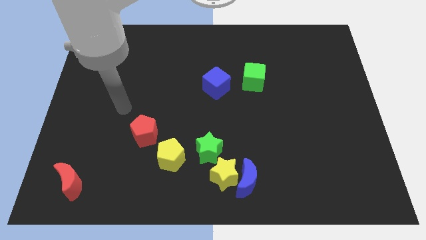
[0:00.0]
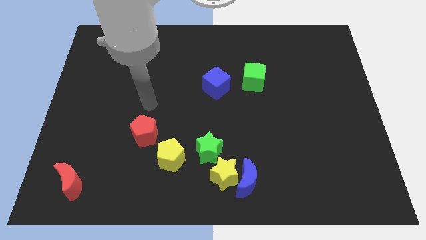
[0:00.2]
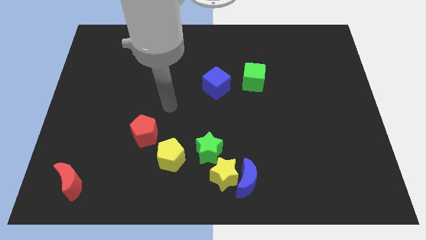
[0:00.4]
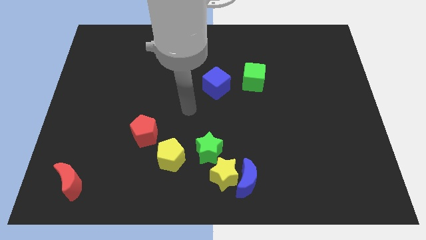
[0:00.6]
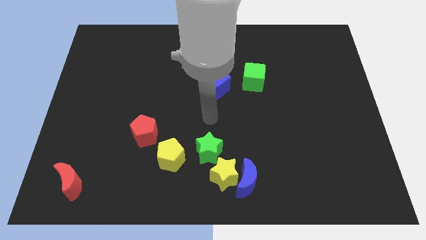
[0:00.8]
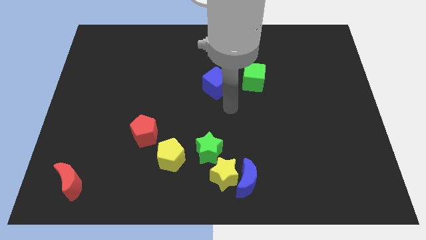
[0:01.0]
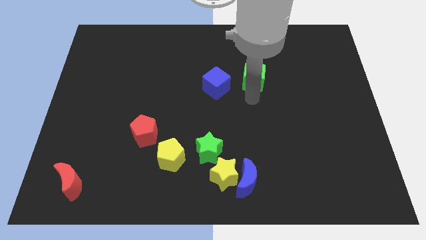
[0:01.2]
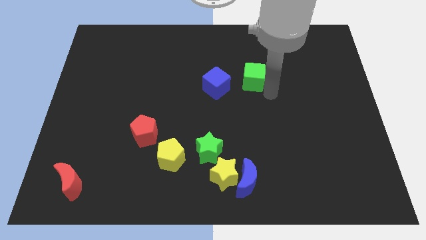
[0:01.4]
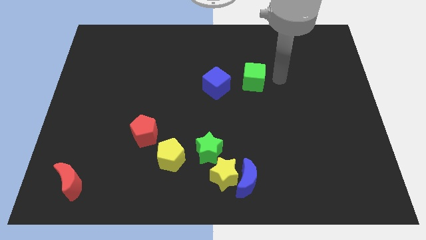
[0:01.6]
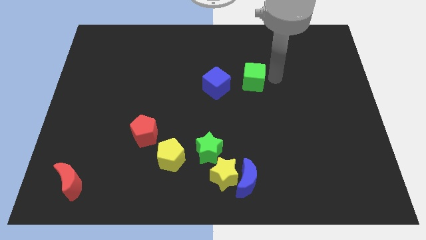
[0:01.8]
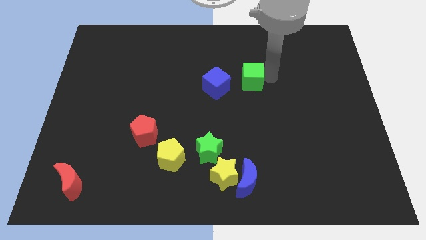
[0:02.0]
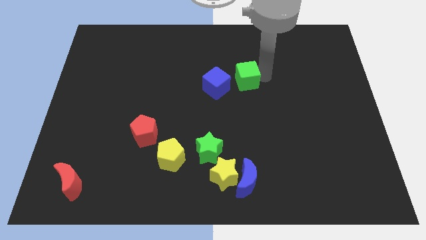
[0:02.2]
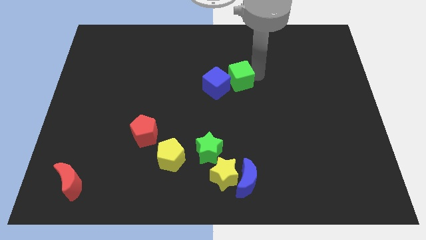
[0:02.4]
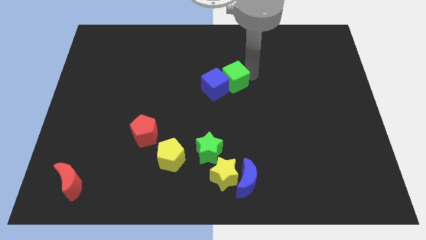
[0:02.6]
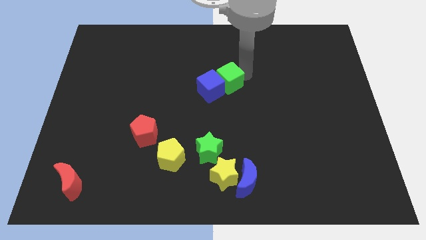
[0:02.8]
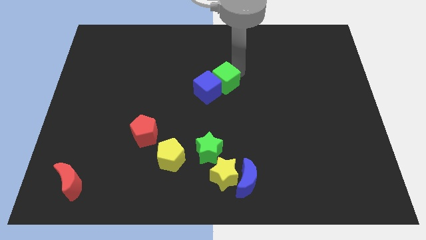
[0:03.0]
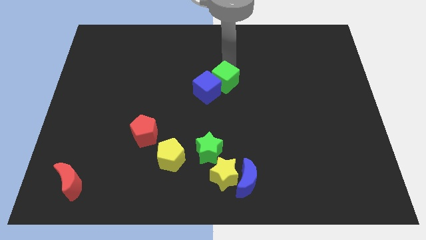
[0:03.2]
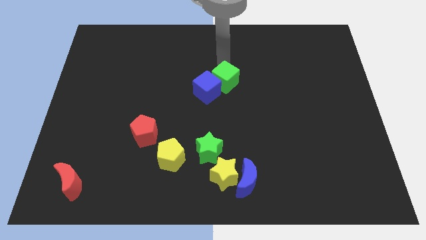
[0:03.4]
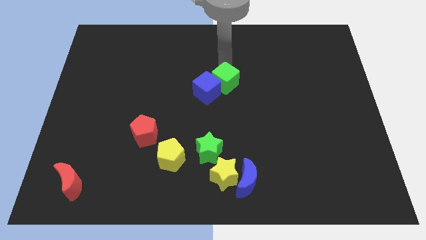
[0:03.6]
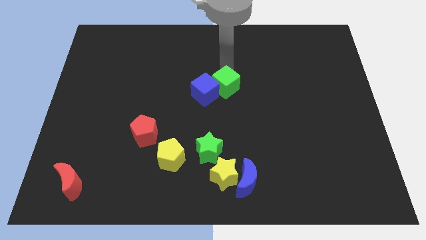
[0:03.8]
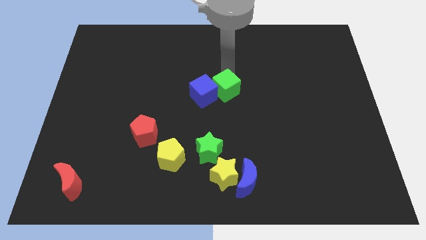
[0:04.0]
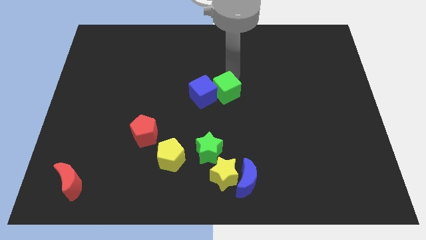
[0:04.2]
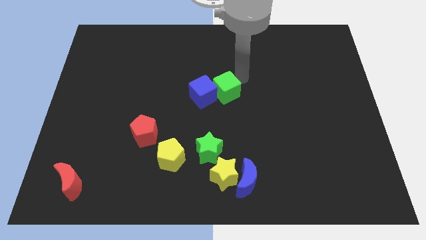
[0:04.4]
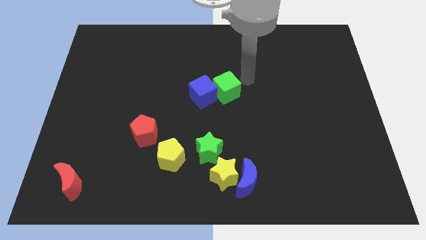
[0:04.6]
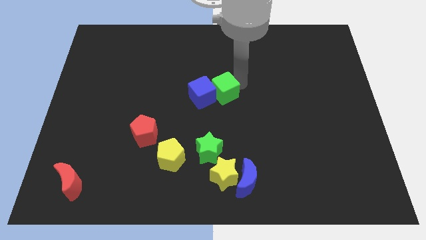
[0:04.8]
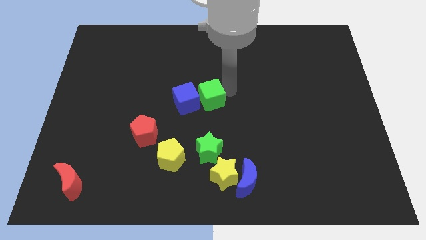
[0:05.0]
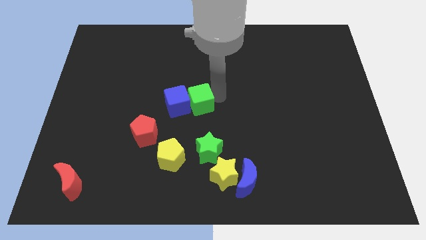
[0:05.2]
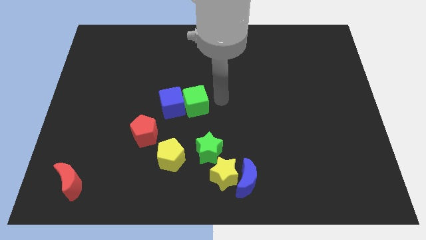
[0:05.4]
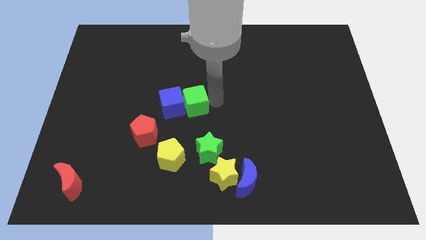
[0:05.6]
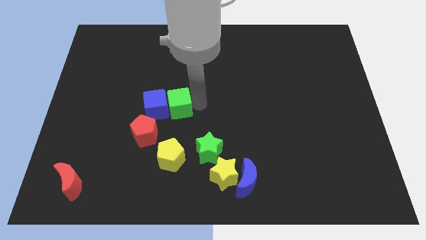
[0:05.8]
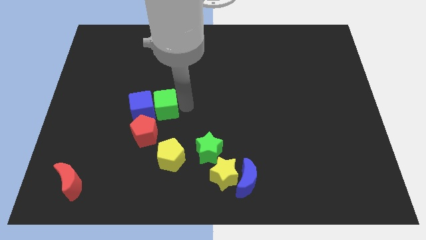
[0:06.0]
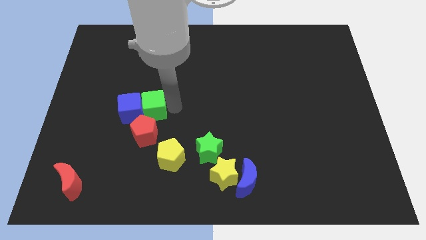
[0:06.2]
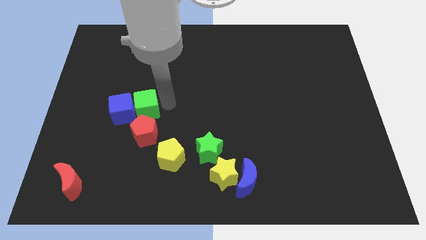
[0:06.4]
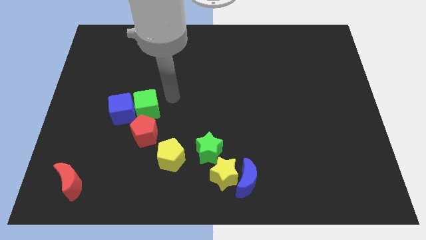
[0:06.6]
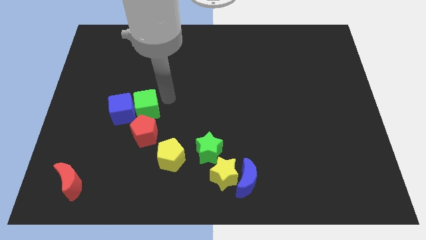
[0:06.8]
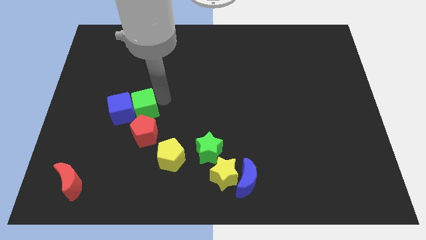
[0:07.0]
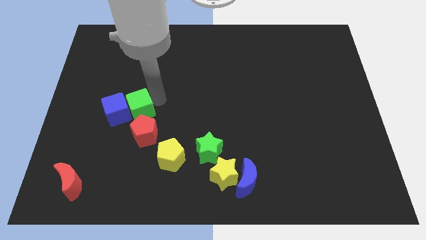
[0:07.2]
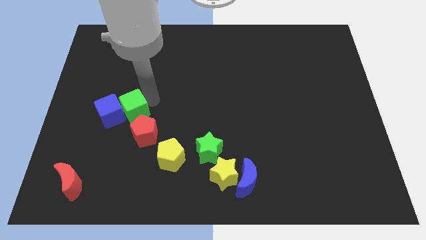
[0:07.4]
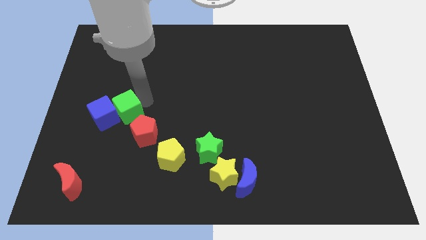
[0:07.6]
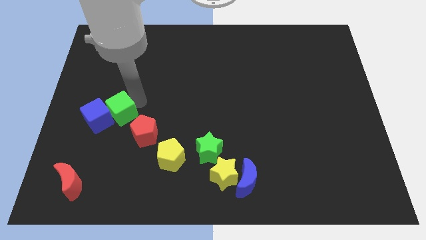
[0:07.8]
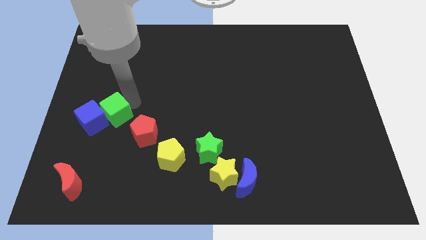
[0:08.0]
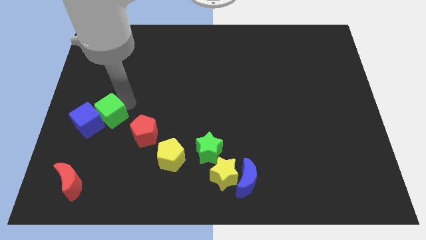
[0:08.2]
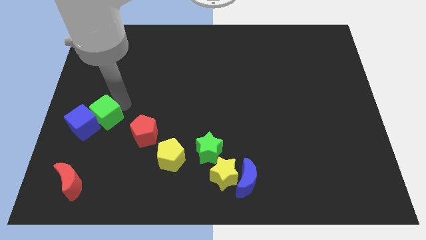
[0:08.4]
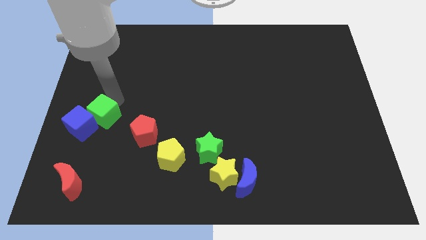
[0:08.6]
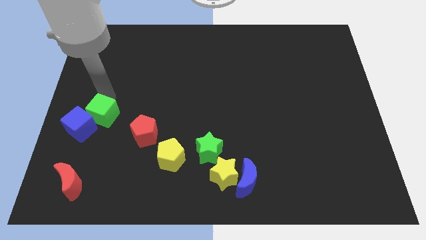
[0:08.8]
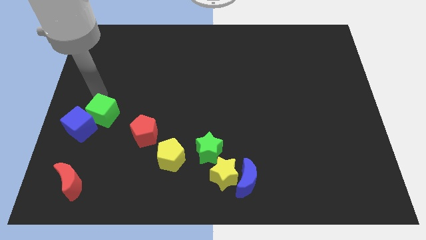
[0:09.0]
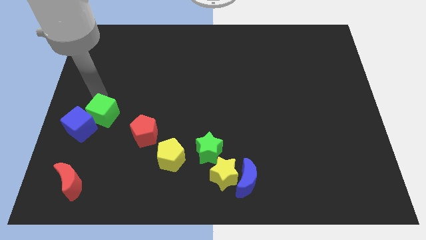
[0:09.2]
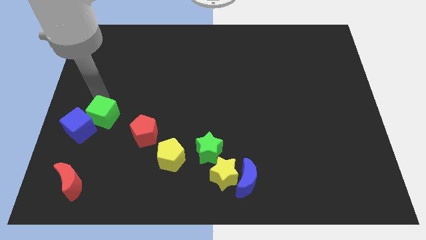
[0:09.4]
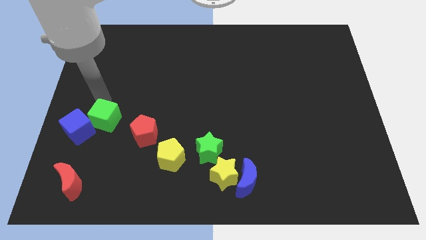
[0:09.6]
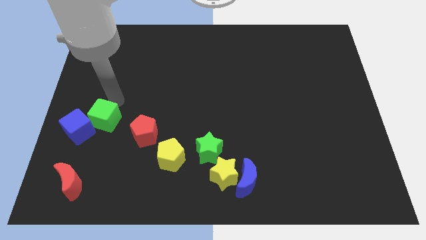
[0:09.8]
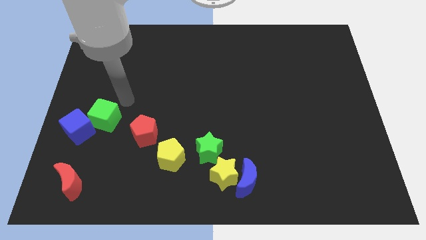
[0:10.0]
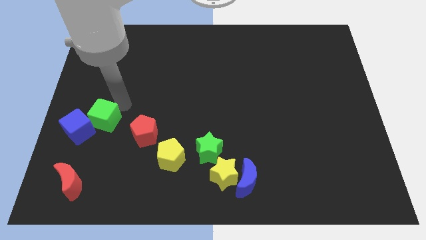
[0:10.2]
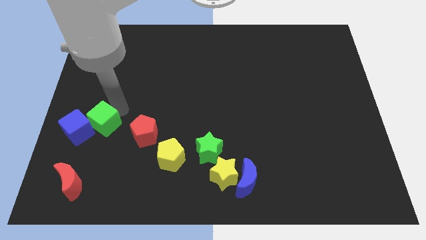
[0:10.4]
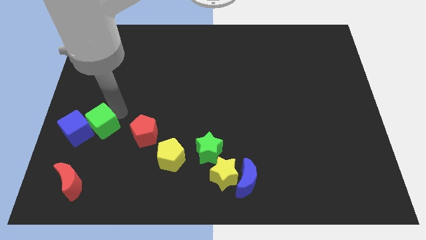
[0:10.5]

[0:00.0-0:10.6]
push the green cube above the red moon
